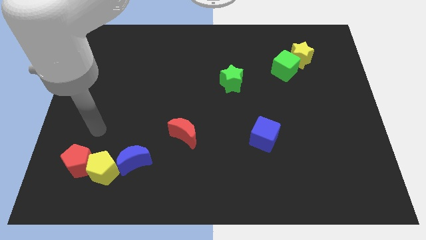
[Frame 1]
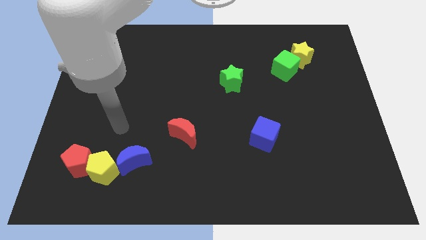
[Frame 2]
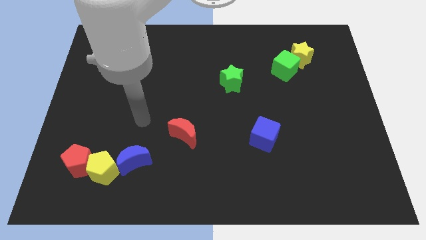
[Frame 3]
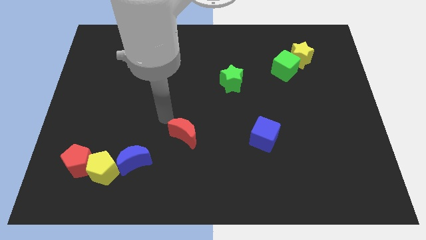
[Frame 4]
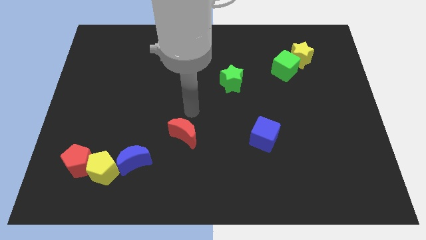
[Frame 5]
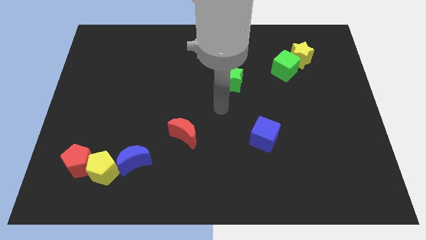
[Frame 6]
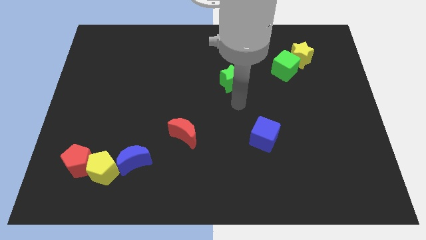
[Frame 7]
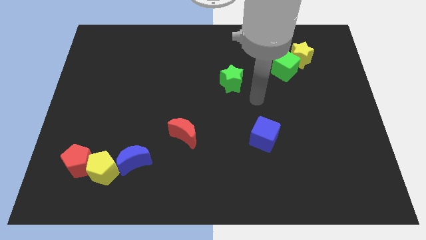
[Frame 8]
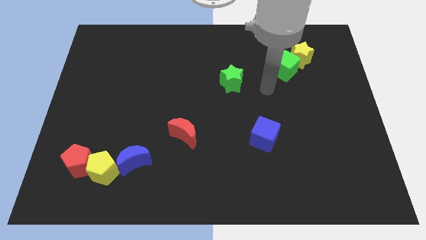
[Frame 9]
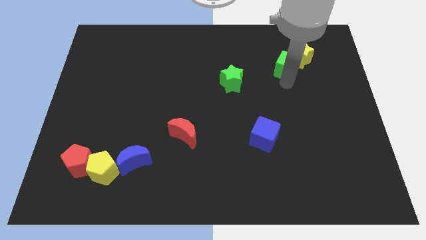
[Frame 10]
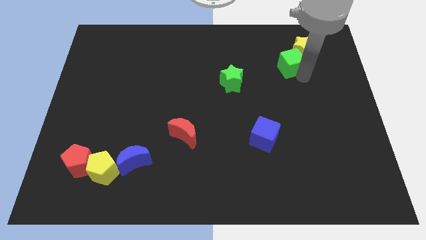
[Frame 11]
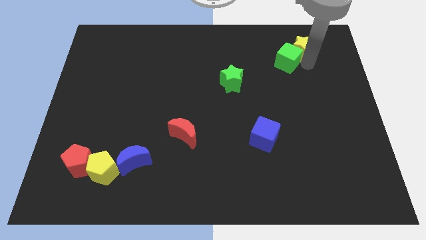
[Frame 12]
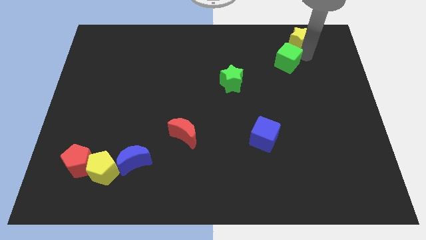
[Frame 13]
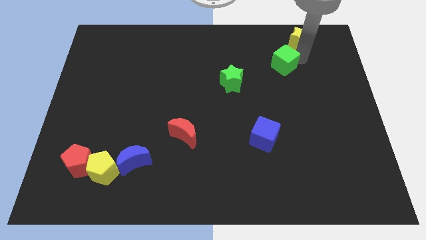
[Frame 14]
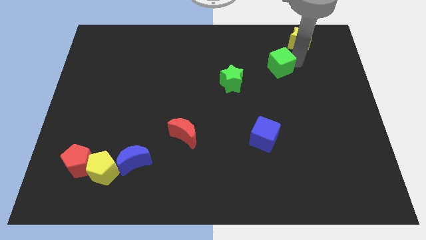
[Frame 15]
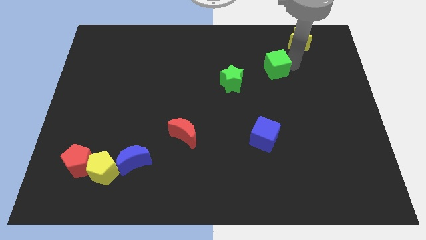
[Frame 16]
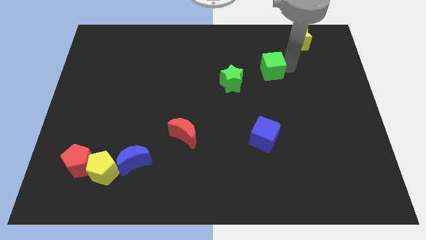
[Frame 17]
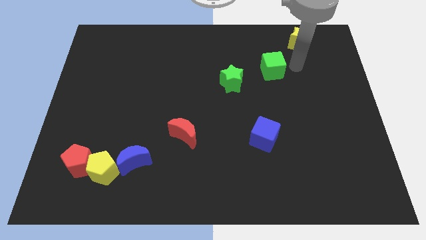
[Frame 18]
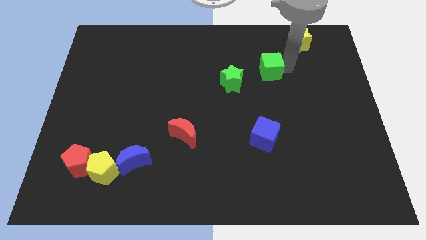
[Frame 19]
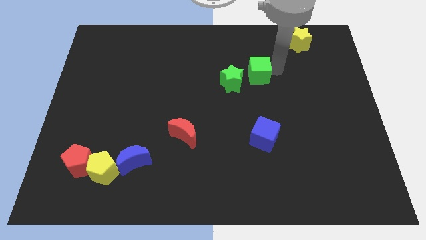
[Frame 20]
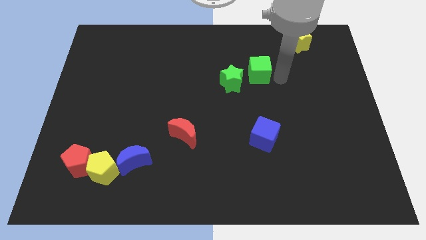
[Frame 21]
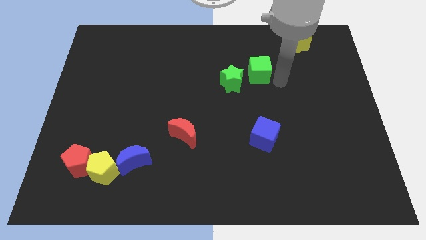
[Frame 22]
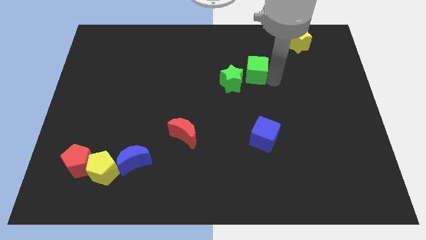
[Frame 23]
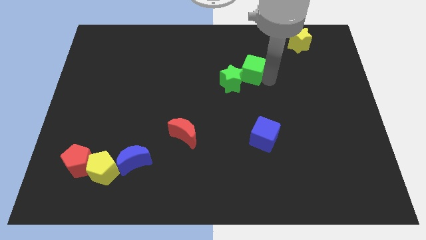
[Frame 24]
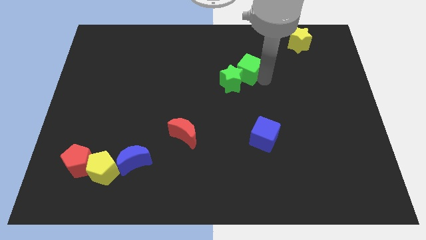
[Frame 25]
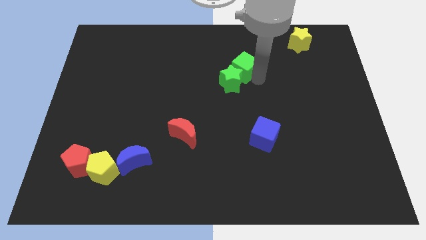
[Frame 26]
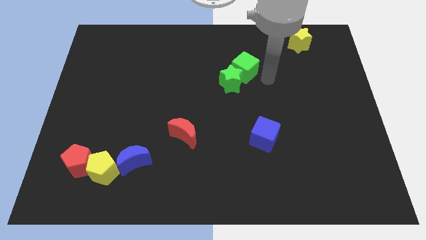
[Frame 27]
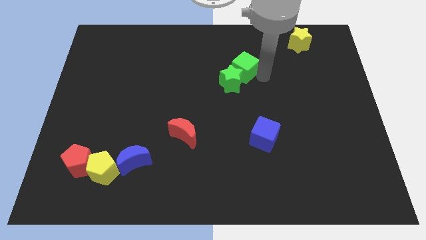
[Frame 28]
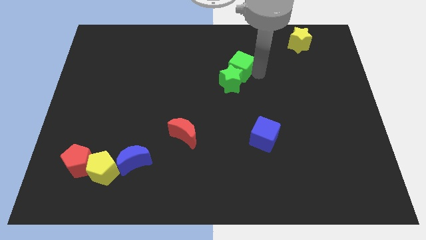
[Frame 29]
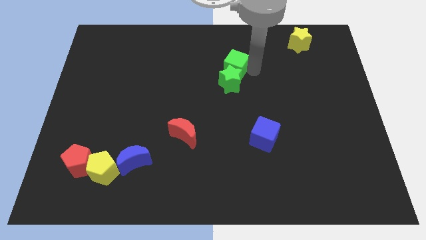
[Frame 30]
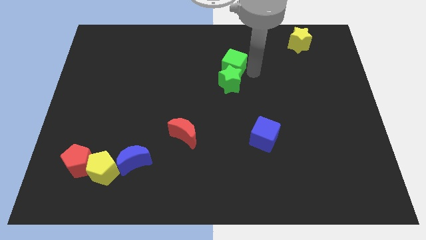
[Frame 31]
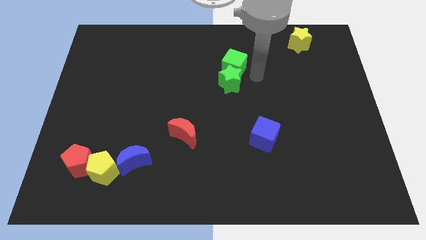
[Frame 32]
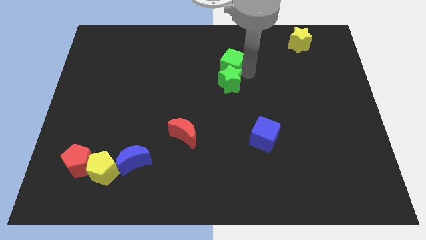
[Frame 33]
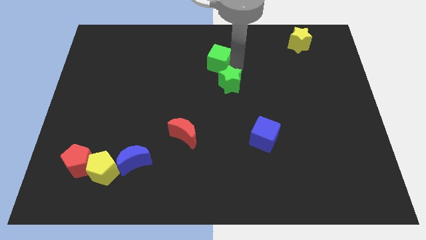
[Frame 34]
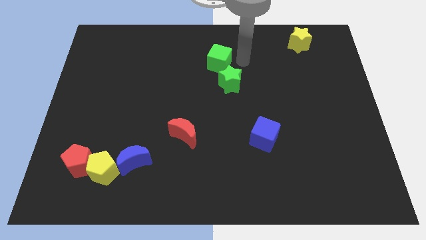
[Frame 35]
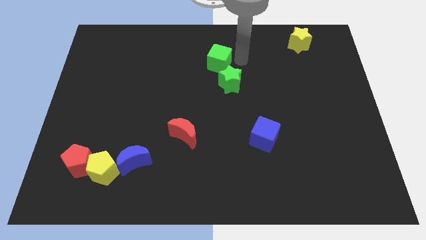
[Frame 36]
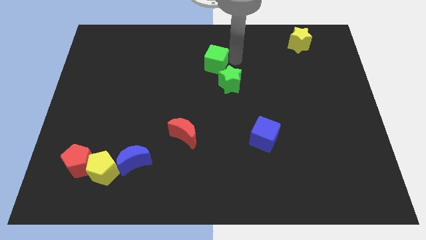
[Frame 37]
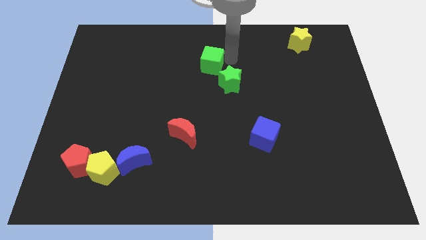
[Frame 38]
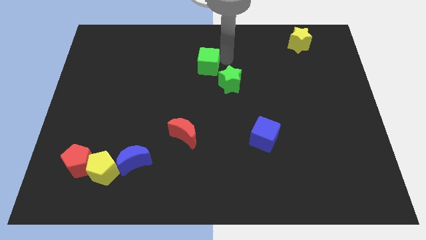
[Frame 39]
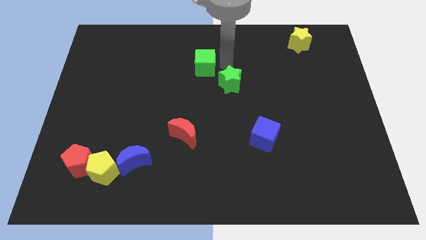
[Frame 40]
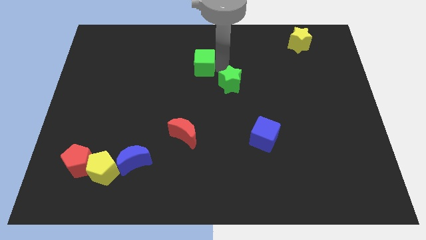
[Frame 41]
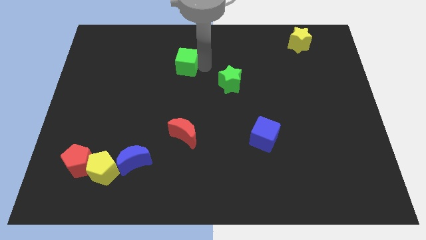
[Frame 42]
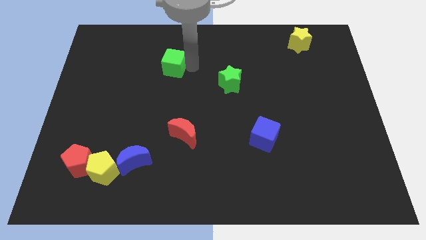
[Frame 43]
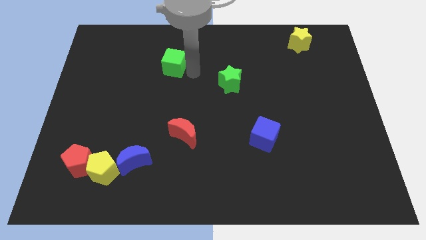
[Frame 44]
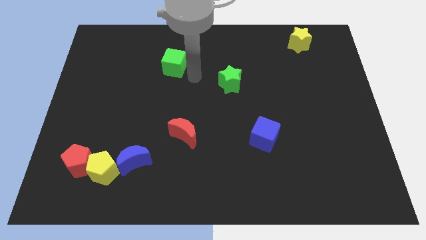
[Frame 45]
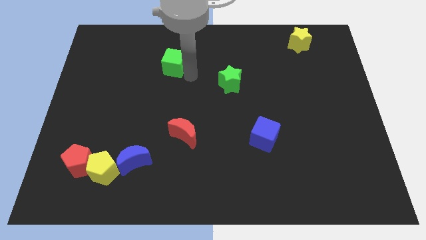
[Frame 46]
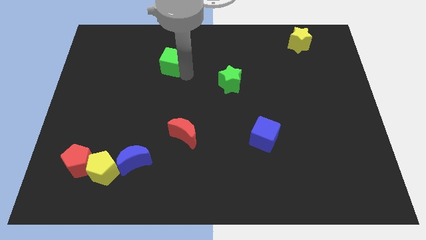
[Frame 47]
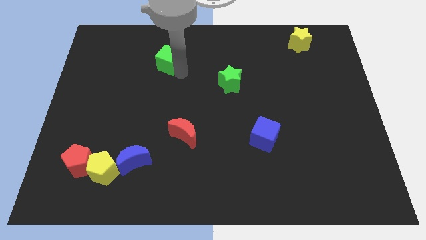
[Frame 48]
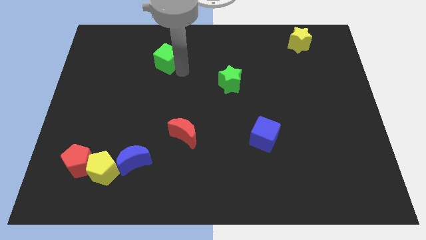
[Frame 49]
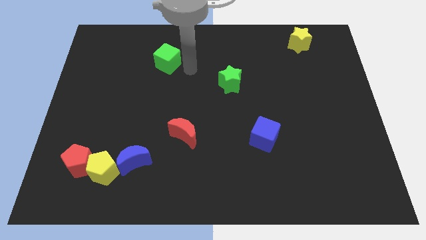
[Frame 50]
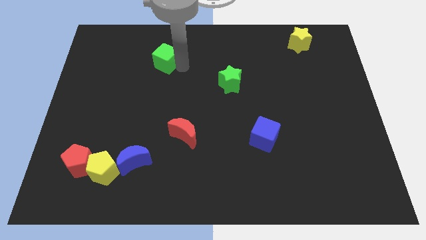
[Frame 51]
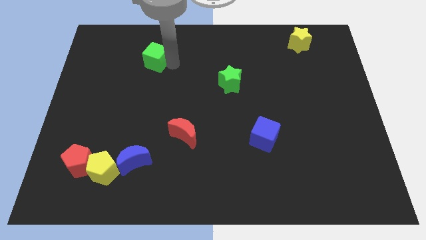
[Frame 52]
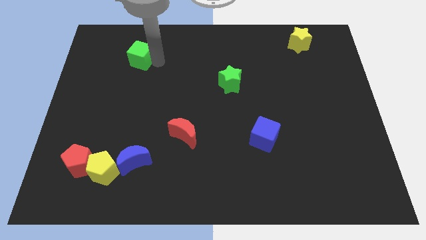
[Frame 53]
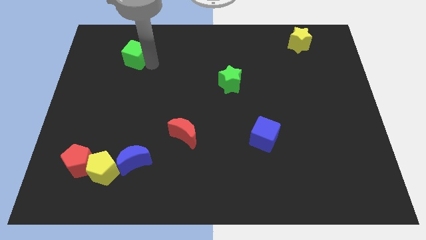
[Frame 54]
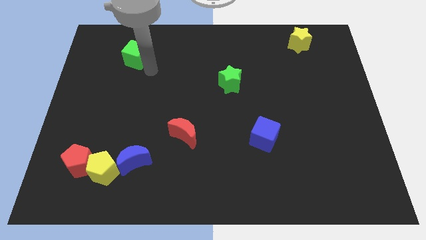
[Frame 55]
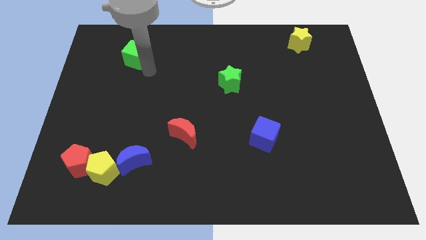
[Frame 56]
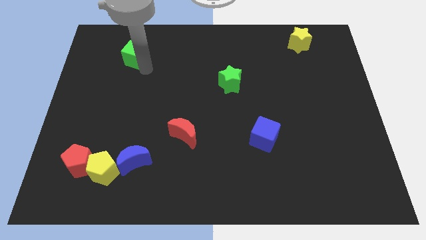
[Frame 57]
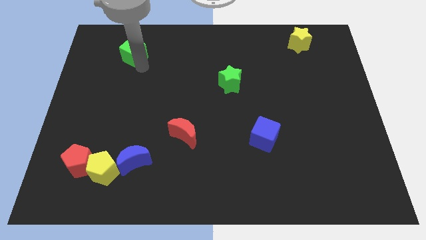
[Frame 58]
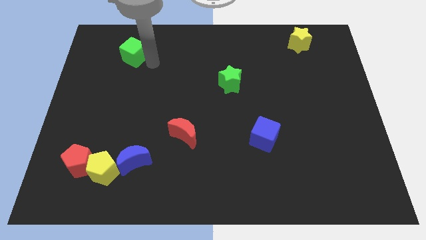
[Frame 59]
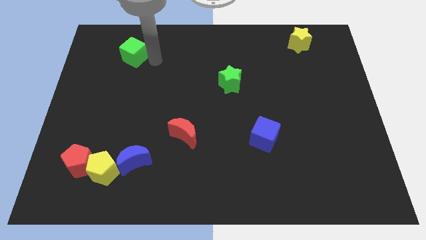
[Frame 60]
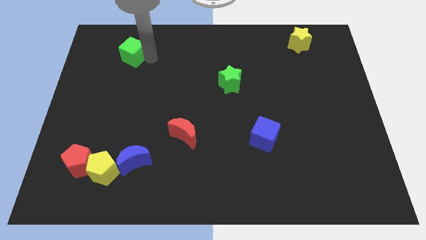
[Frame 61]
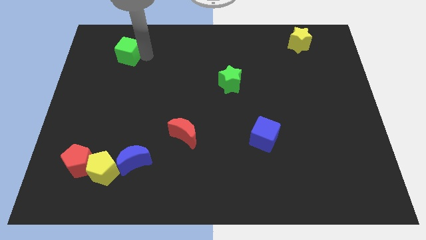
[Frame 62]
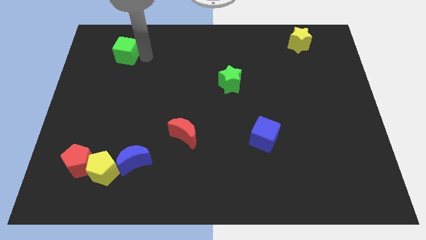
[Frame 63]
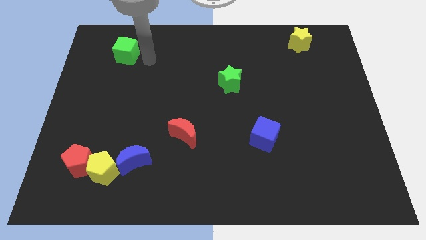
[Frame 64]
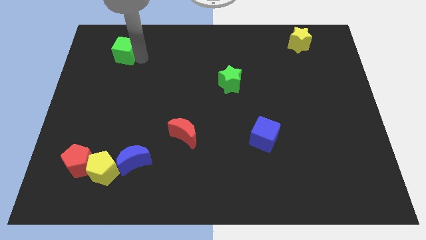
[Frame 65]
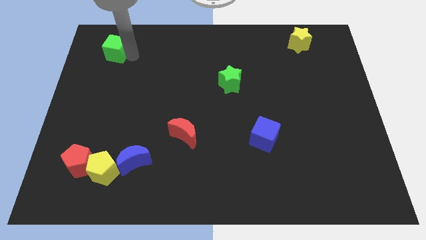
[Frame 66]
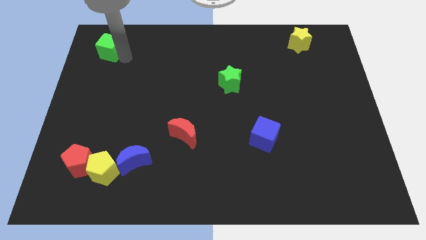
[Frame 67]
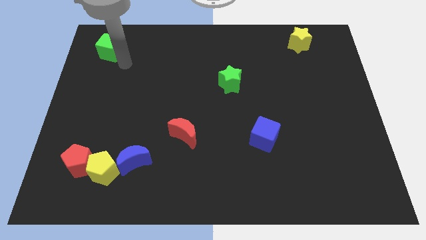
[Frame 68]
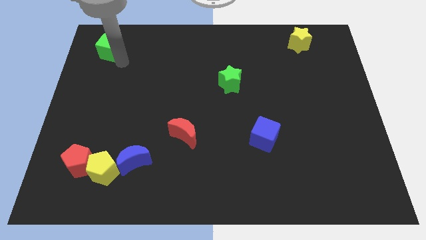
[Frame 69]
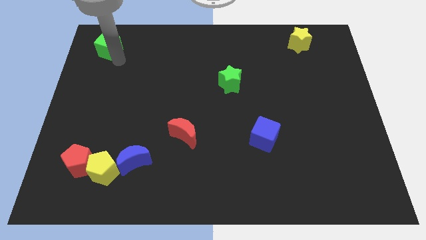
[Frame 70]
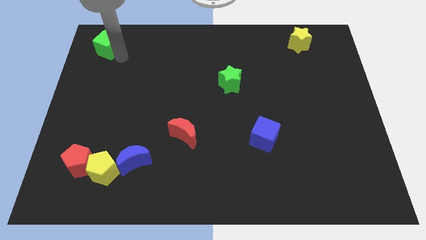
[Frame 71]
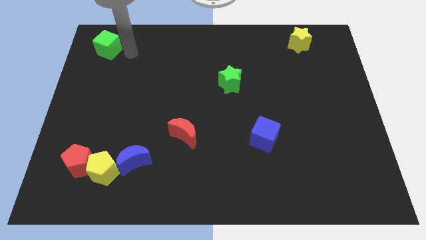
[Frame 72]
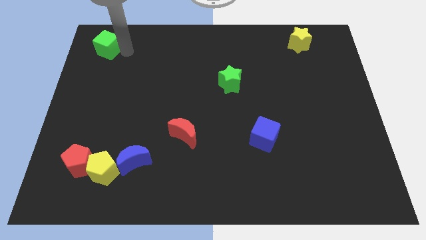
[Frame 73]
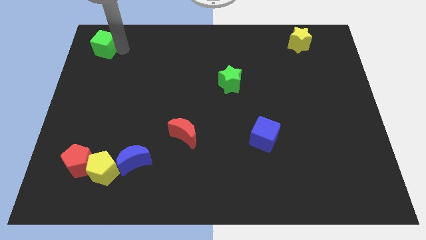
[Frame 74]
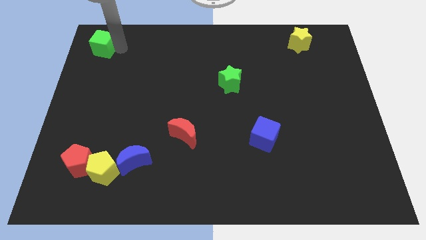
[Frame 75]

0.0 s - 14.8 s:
push the green cube to the top left of the board
